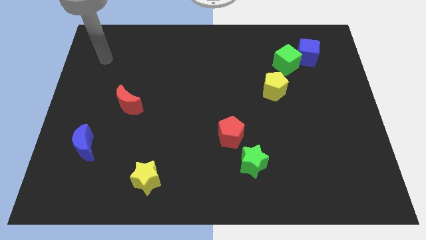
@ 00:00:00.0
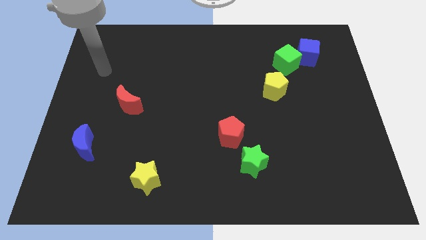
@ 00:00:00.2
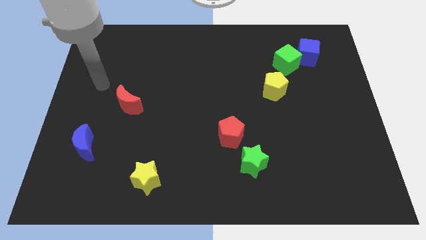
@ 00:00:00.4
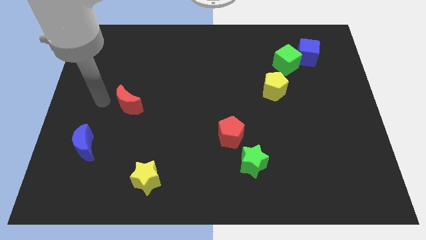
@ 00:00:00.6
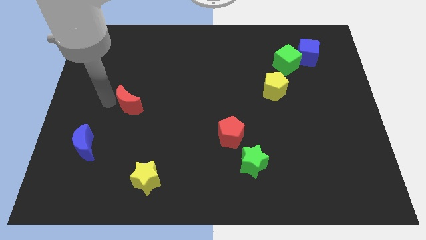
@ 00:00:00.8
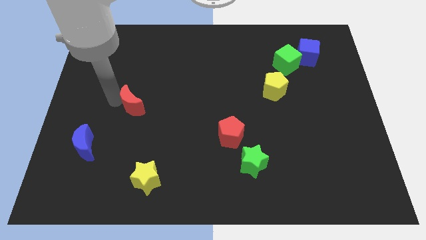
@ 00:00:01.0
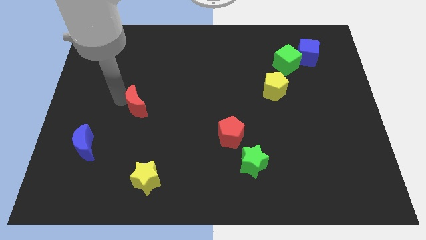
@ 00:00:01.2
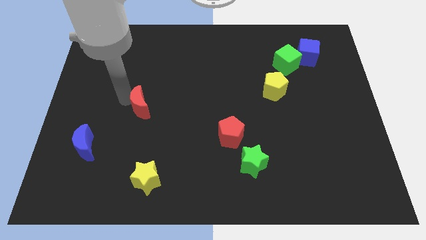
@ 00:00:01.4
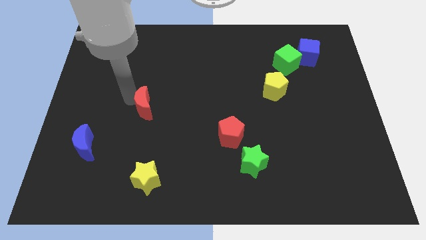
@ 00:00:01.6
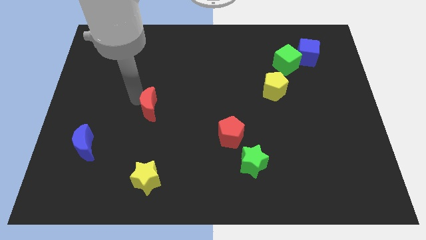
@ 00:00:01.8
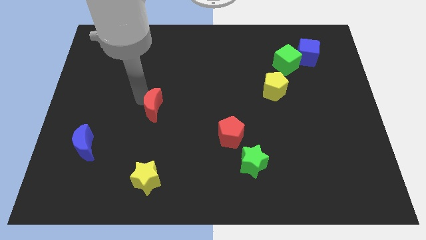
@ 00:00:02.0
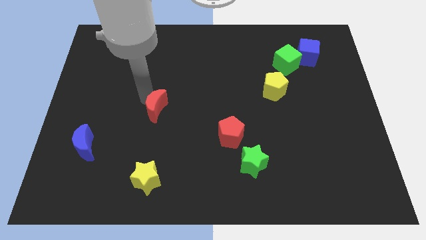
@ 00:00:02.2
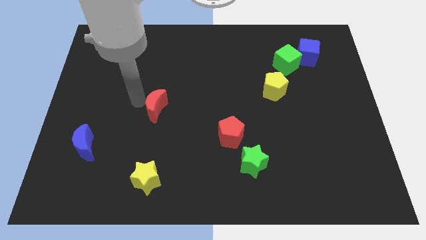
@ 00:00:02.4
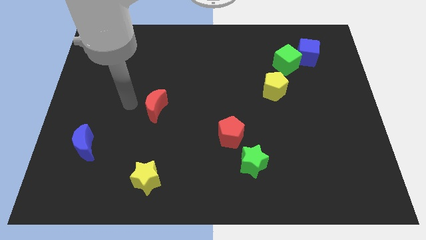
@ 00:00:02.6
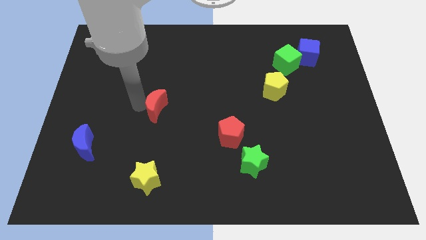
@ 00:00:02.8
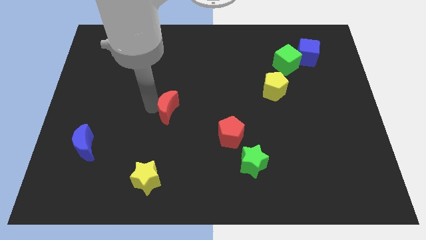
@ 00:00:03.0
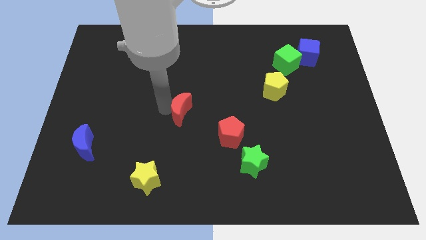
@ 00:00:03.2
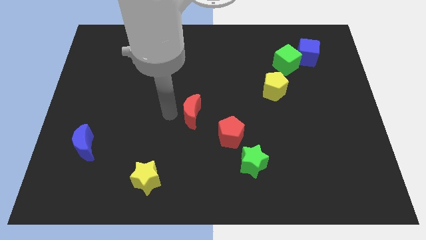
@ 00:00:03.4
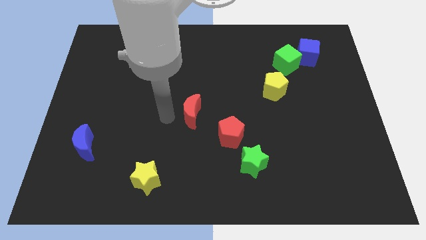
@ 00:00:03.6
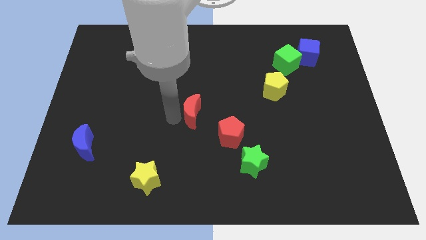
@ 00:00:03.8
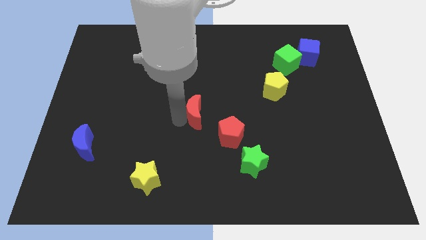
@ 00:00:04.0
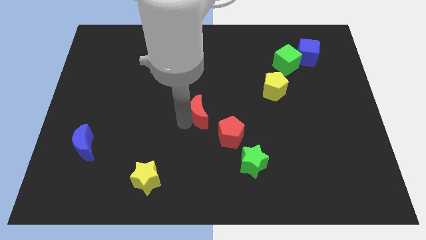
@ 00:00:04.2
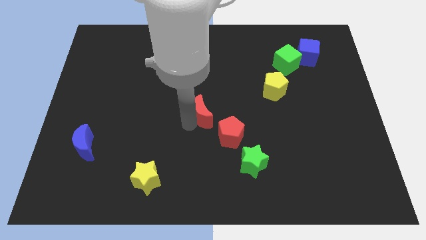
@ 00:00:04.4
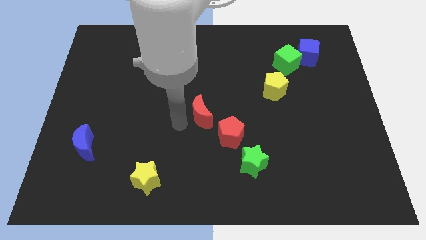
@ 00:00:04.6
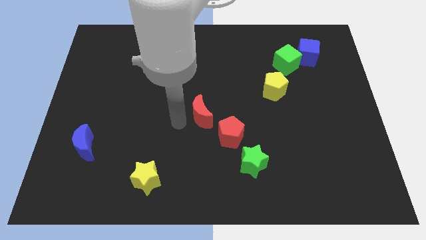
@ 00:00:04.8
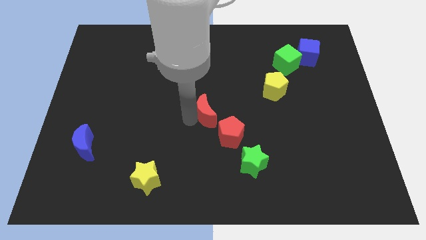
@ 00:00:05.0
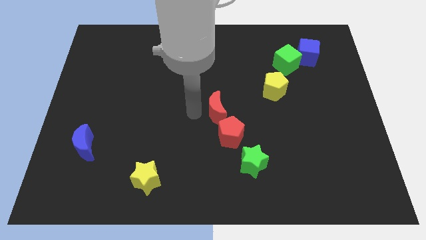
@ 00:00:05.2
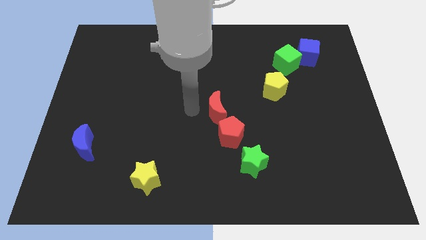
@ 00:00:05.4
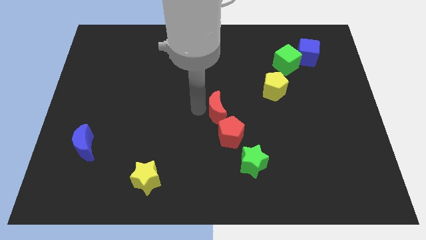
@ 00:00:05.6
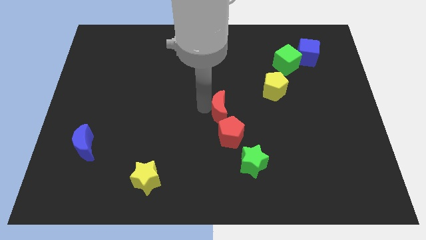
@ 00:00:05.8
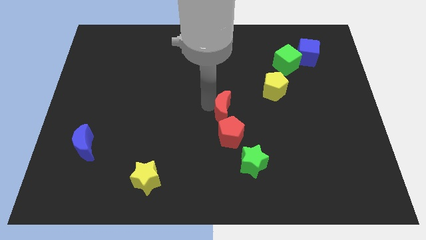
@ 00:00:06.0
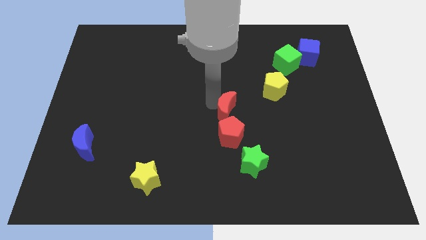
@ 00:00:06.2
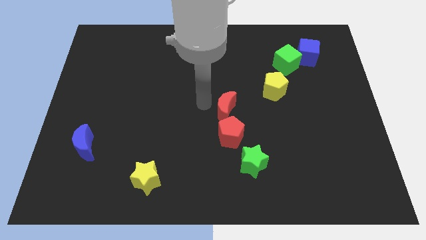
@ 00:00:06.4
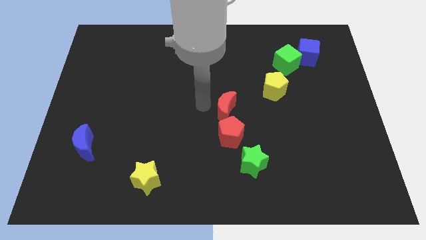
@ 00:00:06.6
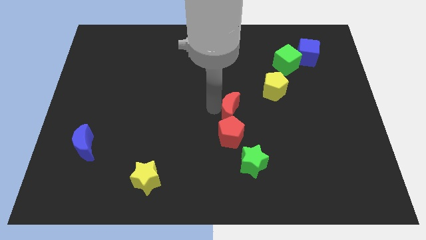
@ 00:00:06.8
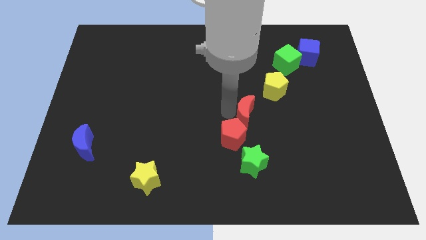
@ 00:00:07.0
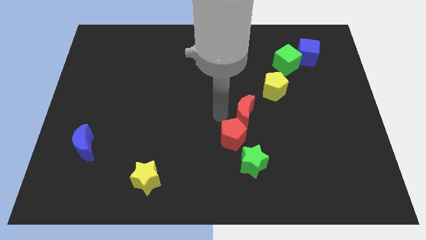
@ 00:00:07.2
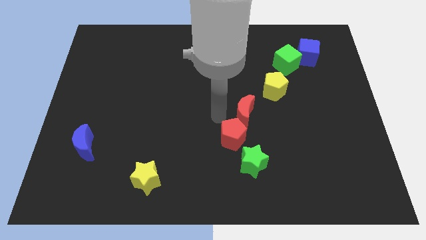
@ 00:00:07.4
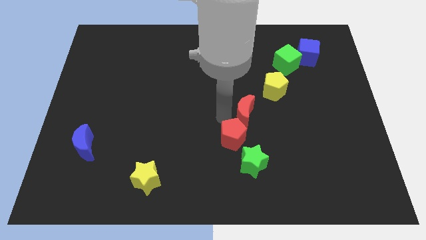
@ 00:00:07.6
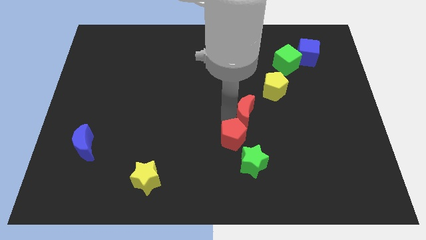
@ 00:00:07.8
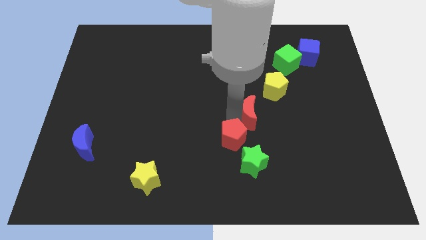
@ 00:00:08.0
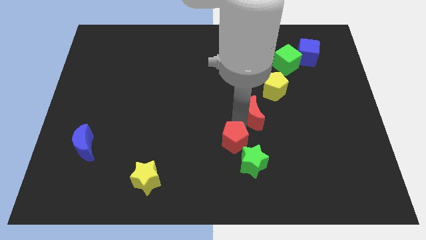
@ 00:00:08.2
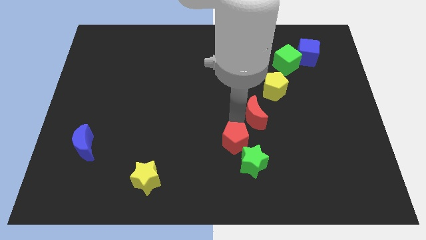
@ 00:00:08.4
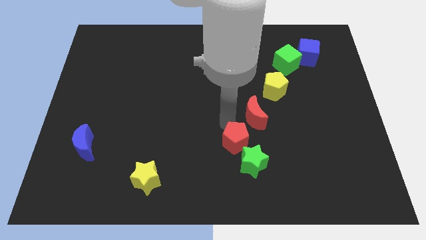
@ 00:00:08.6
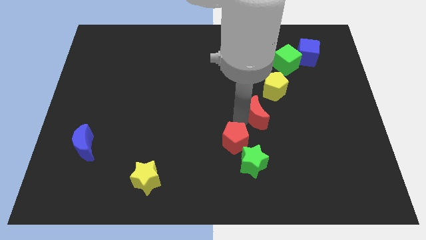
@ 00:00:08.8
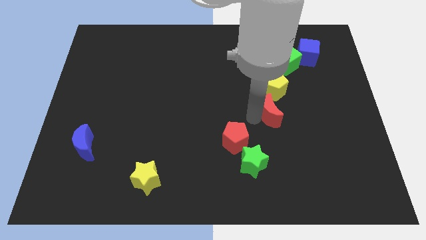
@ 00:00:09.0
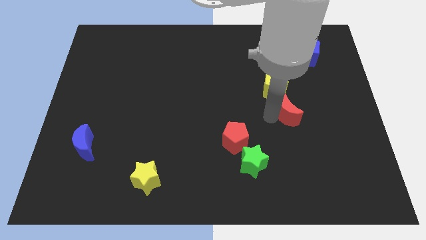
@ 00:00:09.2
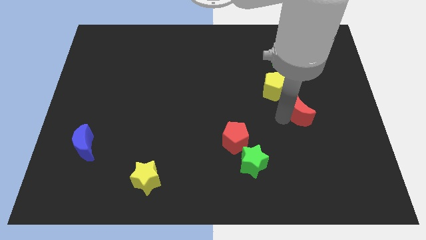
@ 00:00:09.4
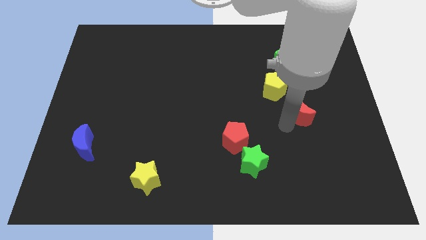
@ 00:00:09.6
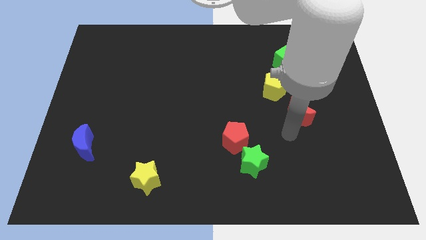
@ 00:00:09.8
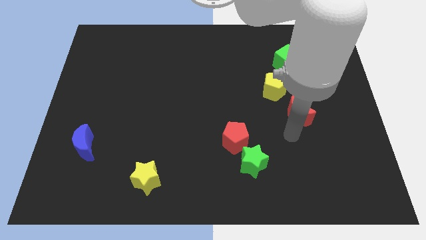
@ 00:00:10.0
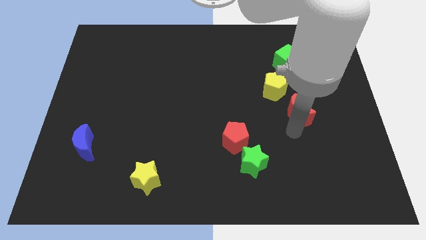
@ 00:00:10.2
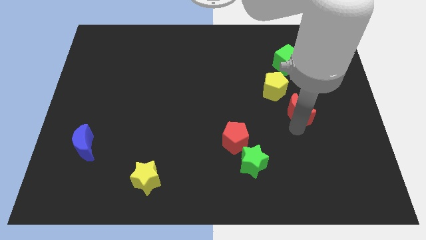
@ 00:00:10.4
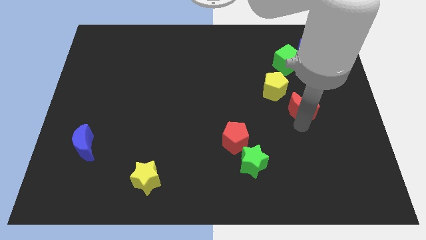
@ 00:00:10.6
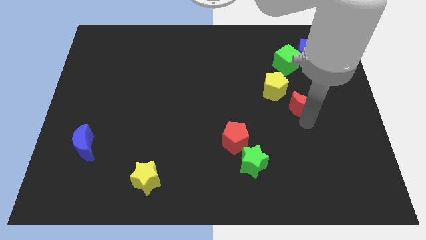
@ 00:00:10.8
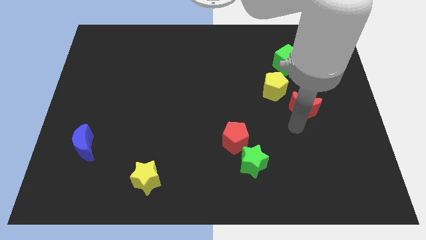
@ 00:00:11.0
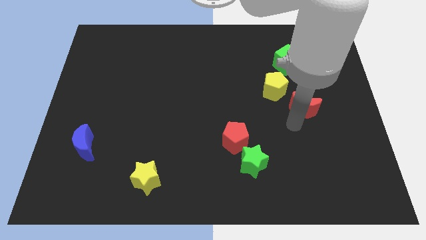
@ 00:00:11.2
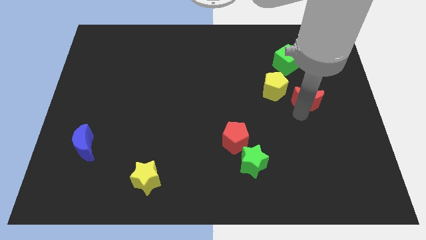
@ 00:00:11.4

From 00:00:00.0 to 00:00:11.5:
push the red moon just right of the yellow pentagon

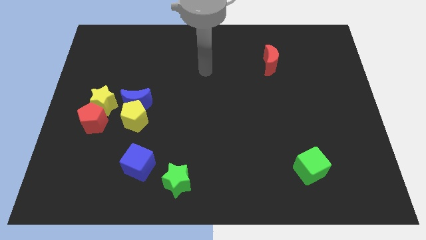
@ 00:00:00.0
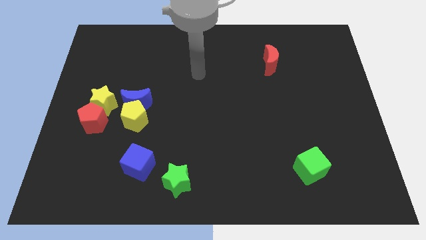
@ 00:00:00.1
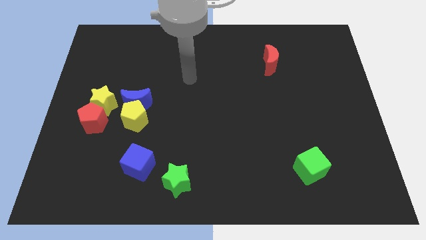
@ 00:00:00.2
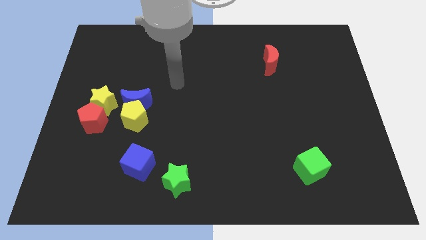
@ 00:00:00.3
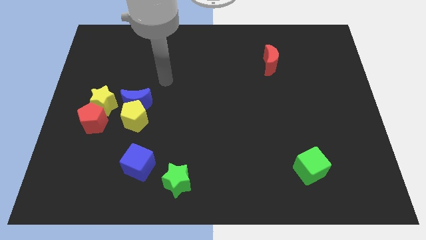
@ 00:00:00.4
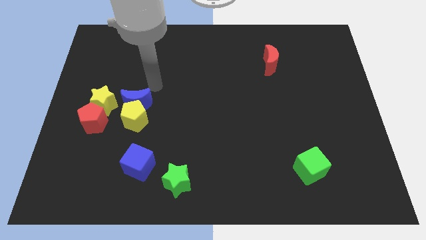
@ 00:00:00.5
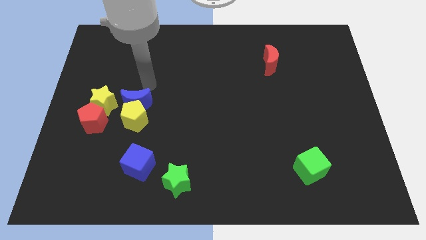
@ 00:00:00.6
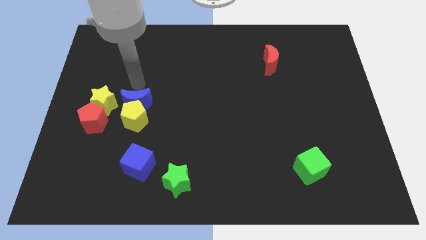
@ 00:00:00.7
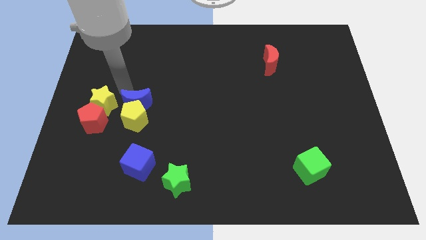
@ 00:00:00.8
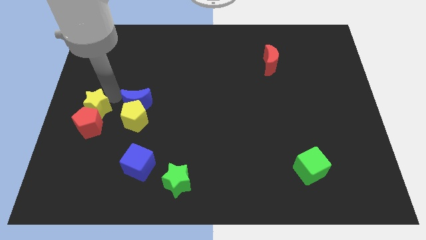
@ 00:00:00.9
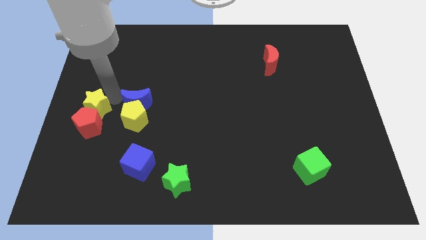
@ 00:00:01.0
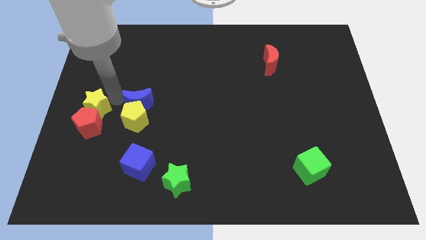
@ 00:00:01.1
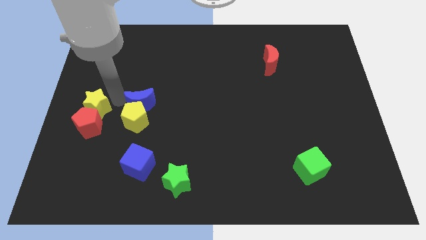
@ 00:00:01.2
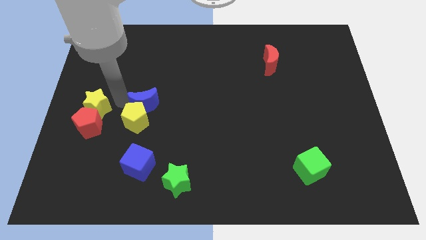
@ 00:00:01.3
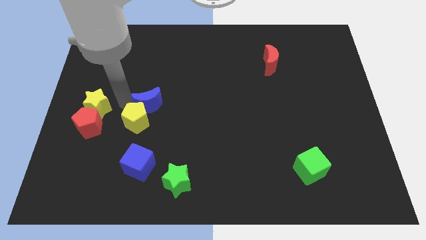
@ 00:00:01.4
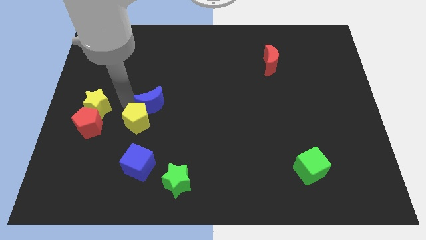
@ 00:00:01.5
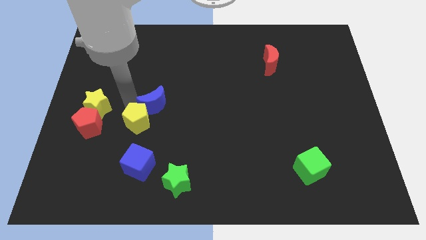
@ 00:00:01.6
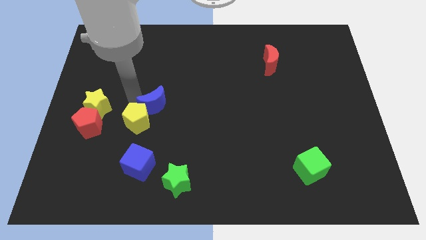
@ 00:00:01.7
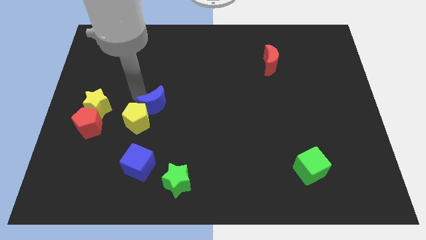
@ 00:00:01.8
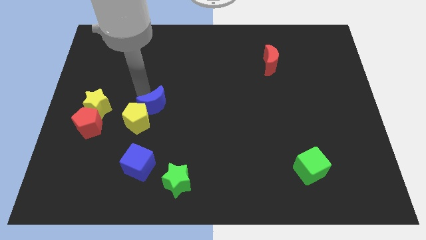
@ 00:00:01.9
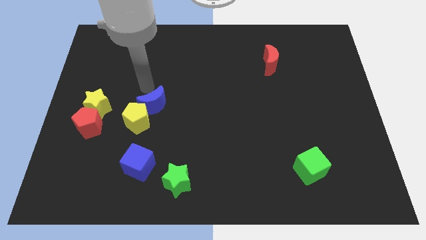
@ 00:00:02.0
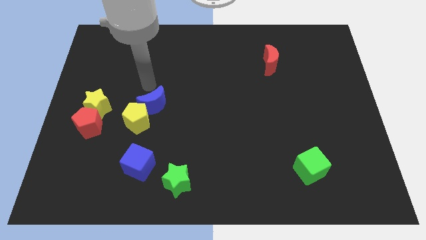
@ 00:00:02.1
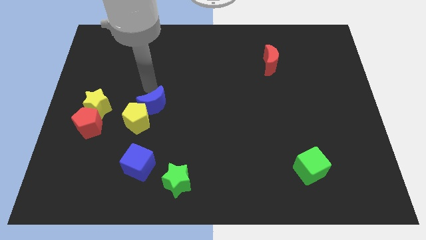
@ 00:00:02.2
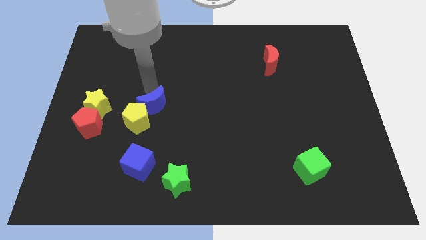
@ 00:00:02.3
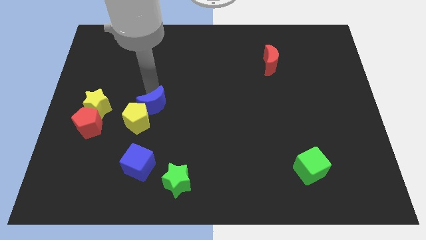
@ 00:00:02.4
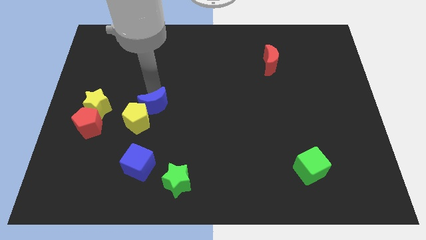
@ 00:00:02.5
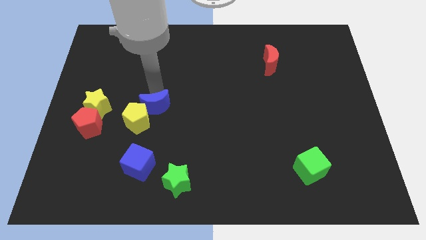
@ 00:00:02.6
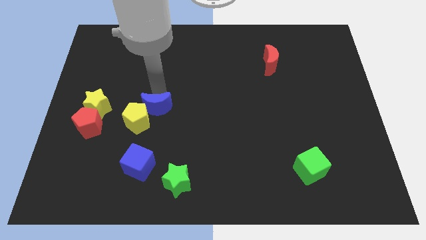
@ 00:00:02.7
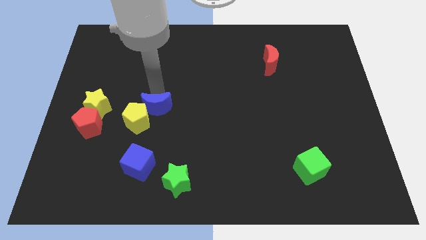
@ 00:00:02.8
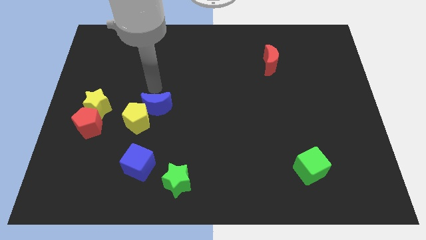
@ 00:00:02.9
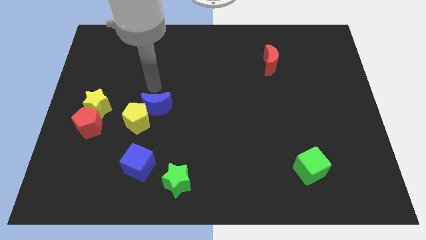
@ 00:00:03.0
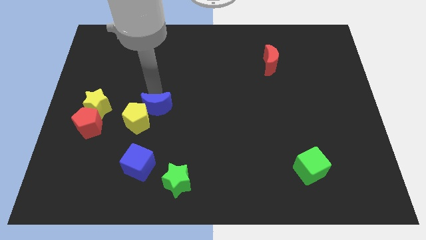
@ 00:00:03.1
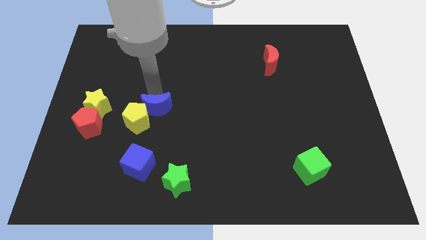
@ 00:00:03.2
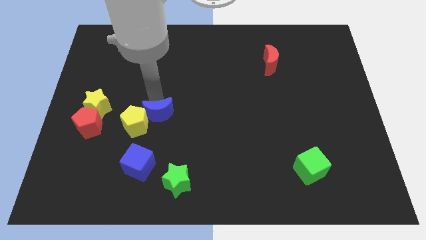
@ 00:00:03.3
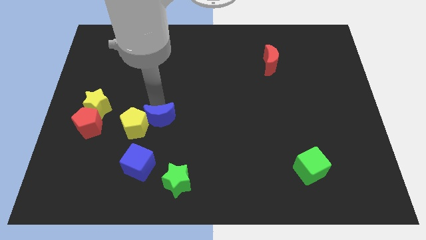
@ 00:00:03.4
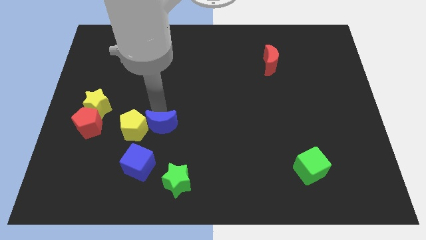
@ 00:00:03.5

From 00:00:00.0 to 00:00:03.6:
push the blue moon diagonally up and to the right of the blue cube
